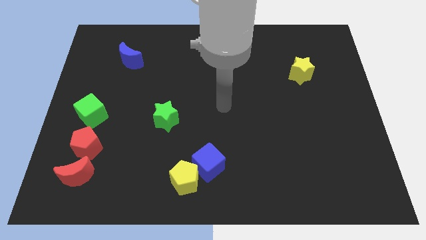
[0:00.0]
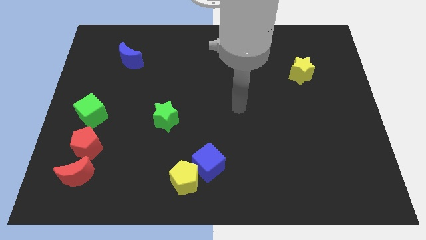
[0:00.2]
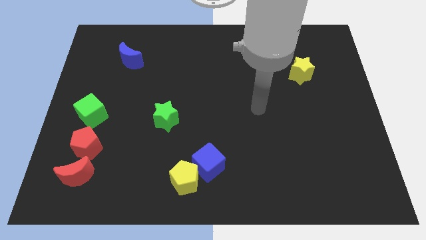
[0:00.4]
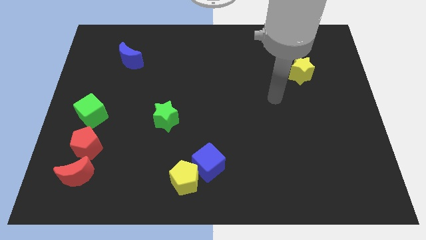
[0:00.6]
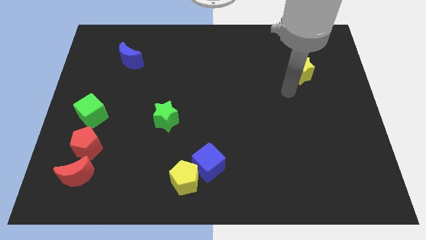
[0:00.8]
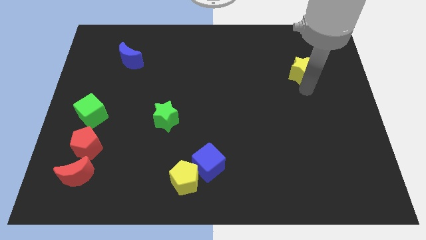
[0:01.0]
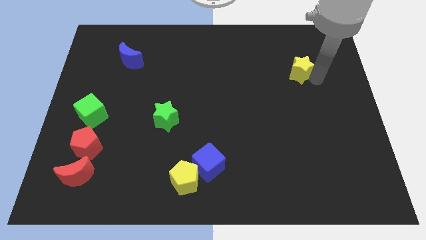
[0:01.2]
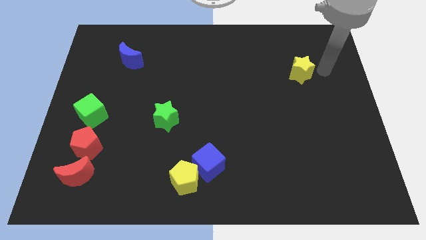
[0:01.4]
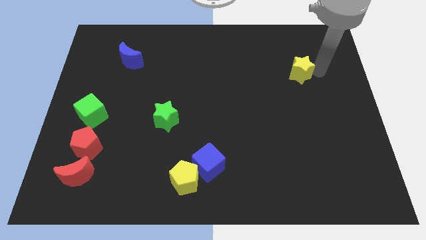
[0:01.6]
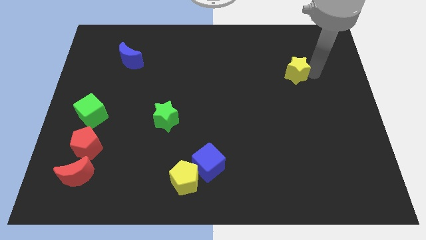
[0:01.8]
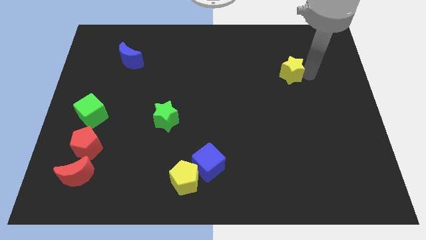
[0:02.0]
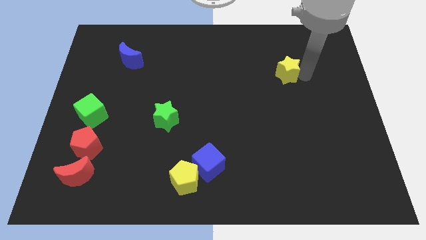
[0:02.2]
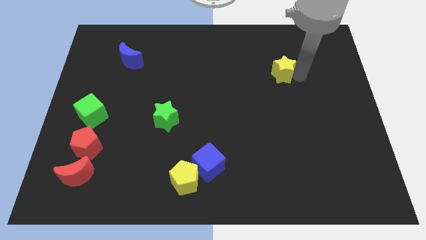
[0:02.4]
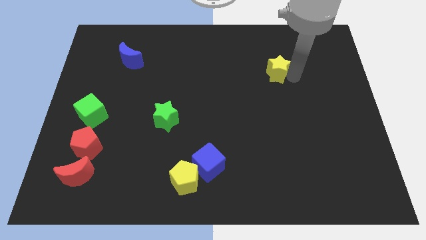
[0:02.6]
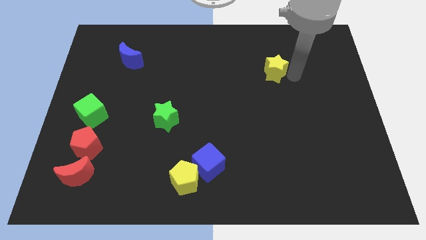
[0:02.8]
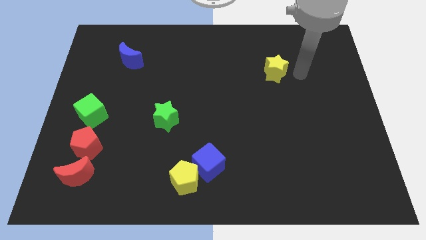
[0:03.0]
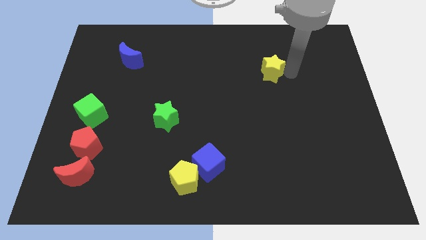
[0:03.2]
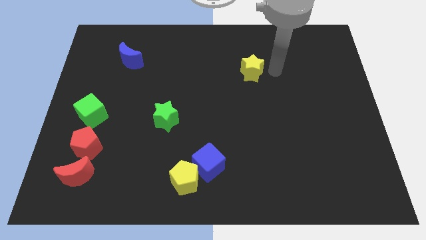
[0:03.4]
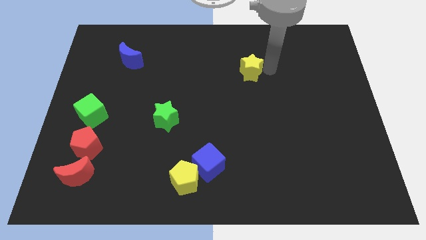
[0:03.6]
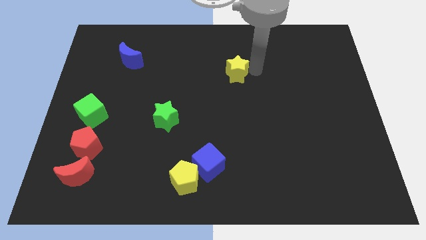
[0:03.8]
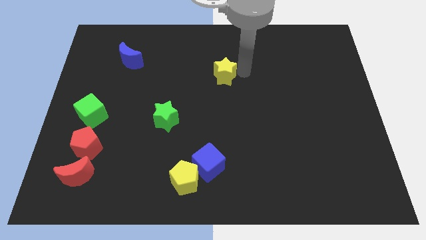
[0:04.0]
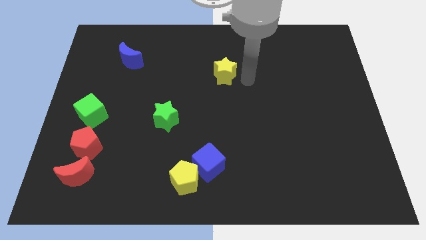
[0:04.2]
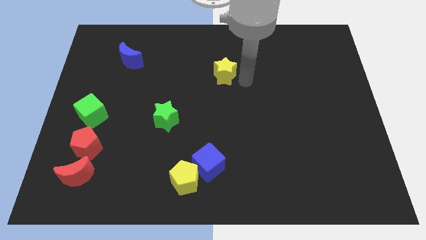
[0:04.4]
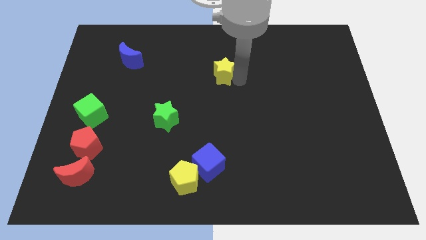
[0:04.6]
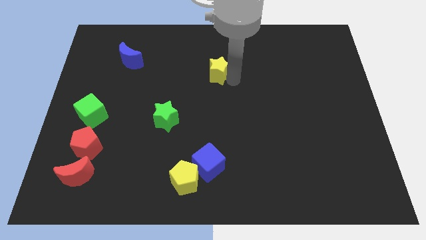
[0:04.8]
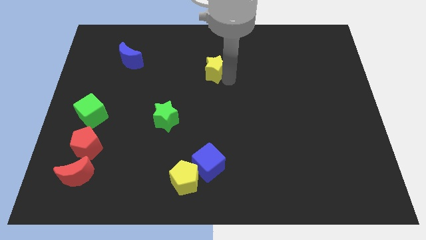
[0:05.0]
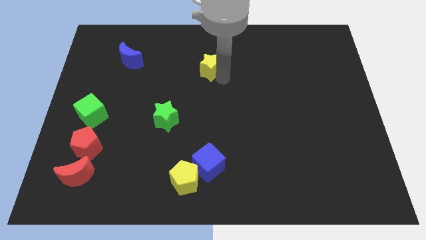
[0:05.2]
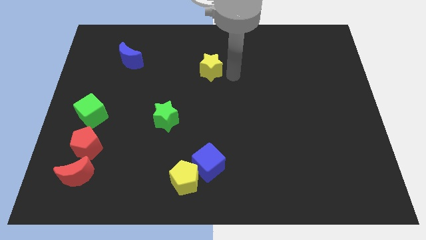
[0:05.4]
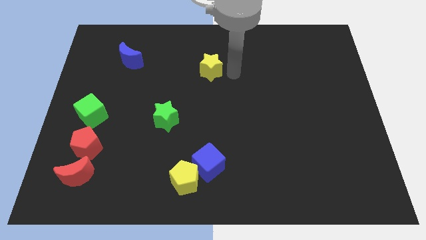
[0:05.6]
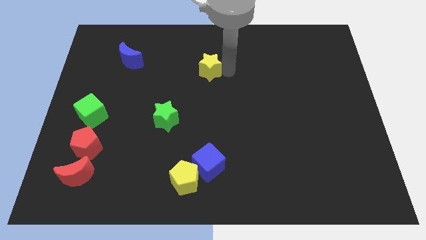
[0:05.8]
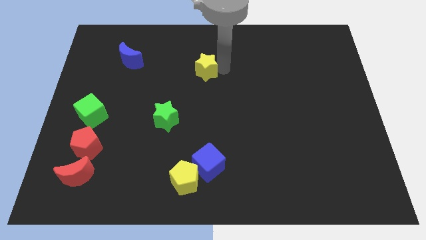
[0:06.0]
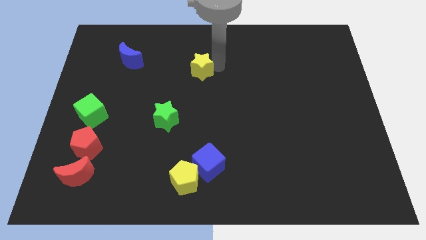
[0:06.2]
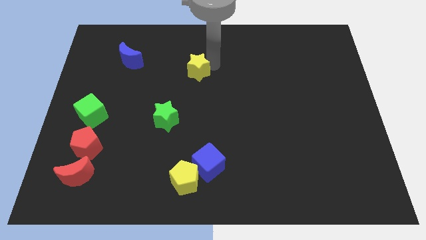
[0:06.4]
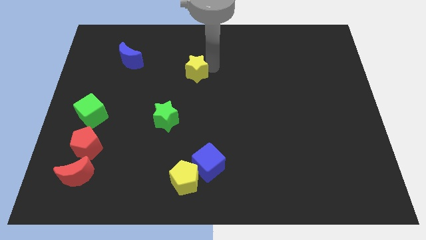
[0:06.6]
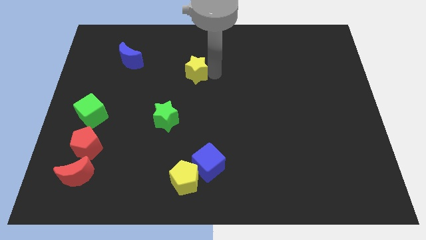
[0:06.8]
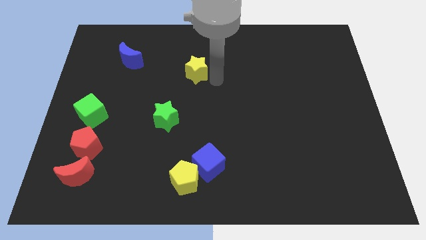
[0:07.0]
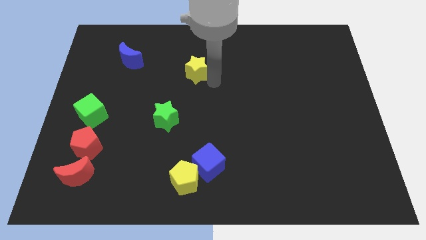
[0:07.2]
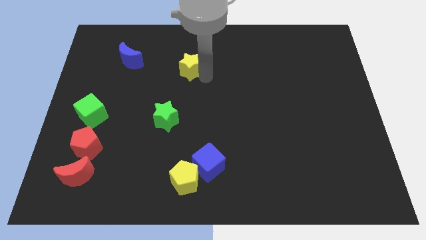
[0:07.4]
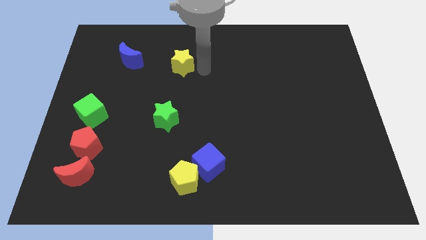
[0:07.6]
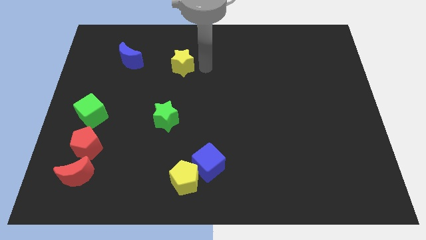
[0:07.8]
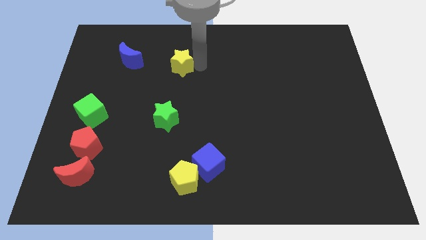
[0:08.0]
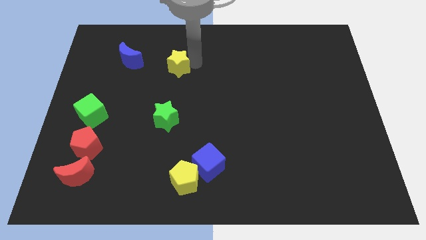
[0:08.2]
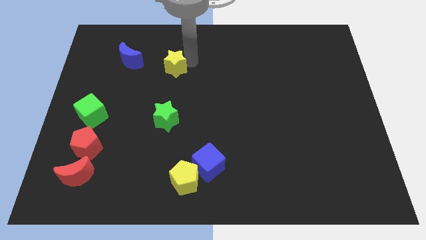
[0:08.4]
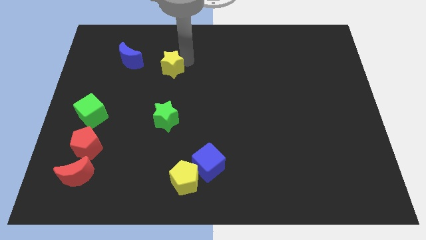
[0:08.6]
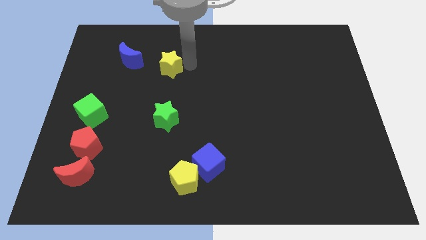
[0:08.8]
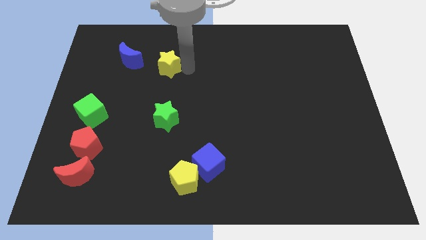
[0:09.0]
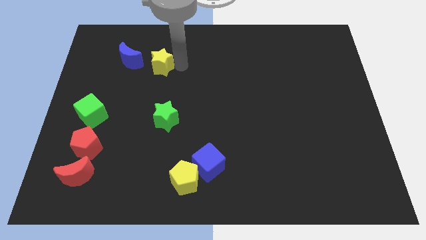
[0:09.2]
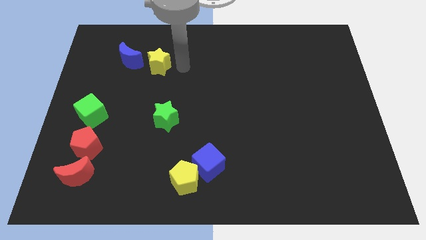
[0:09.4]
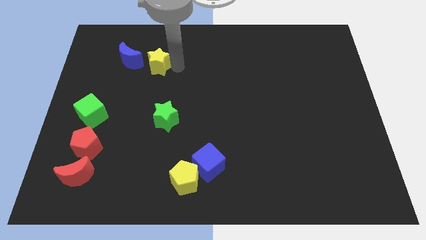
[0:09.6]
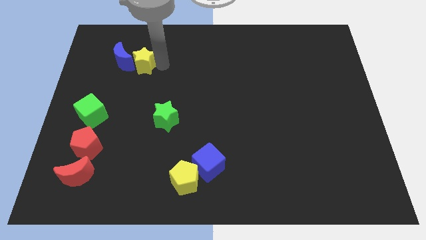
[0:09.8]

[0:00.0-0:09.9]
move the yellow star close to the blue moon

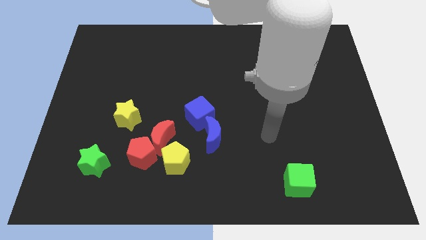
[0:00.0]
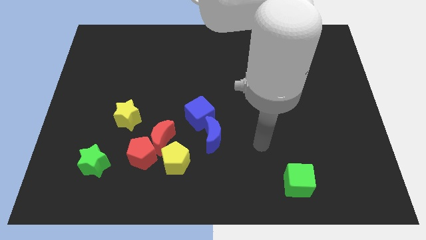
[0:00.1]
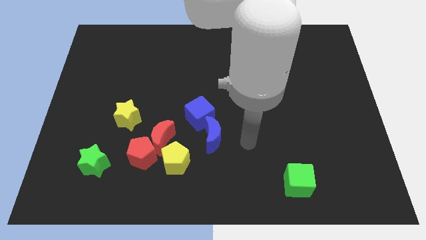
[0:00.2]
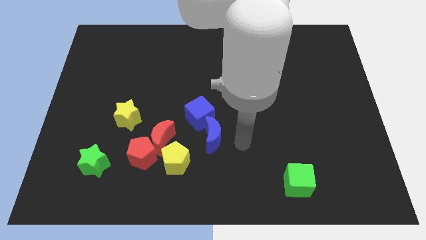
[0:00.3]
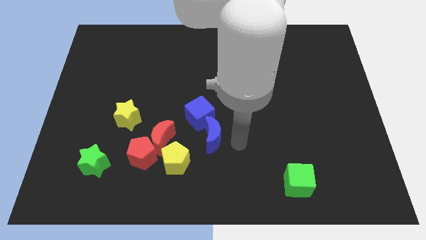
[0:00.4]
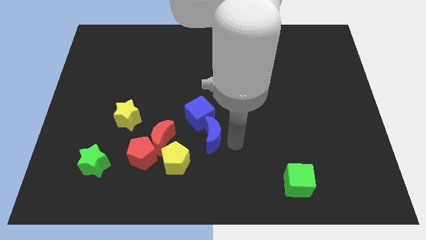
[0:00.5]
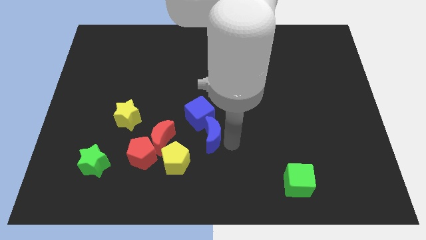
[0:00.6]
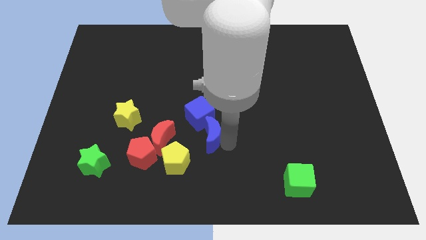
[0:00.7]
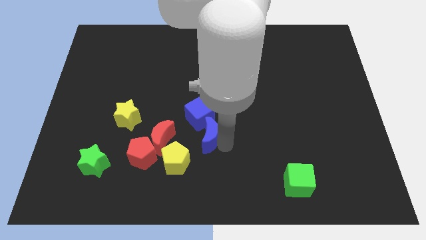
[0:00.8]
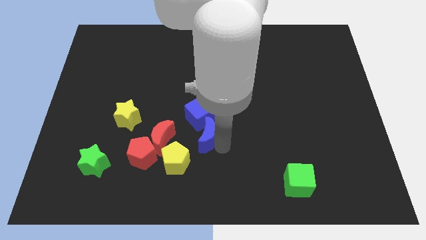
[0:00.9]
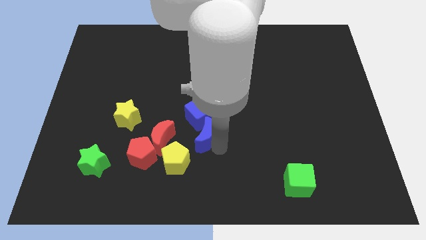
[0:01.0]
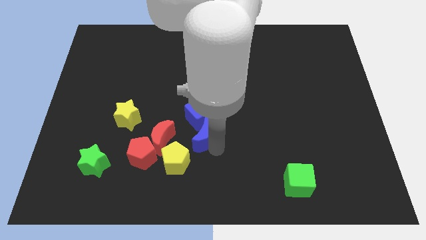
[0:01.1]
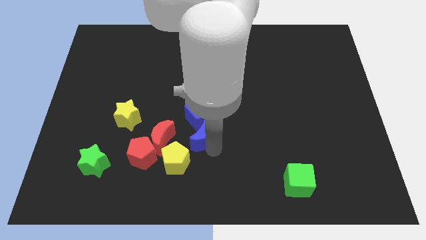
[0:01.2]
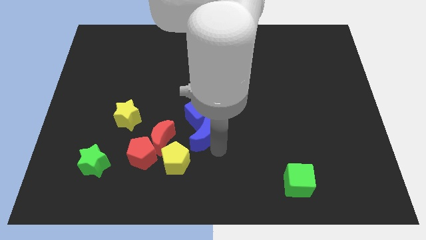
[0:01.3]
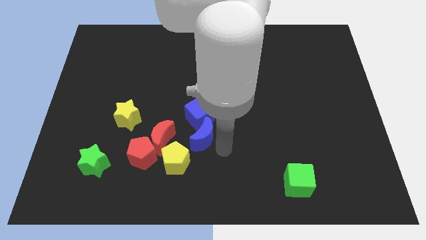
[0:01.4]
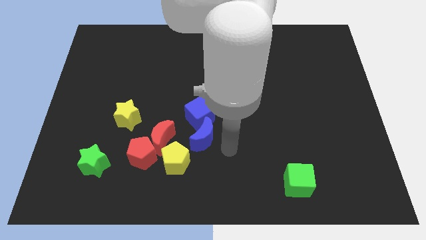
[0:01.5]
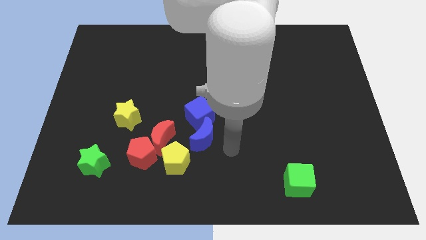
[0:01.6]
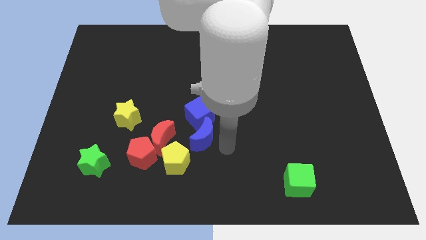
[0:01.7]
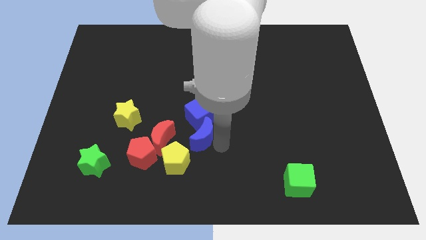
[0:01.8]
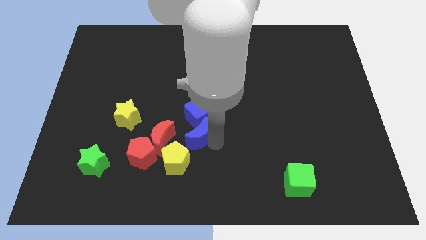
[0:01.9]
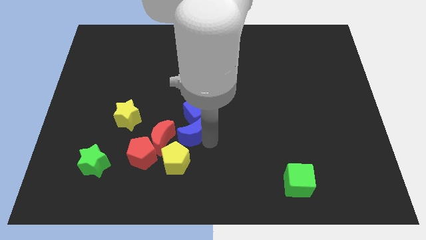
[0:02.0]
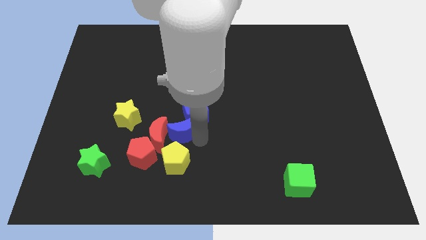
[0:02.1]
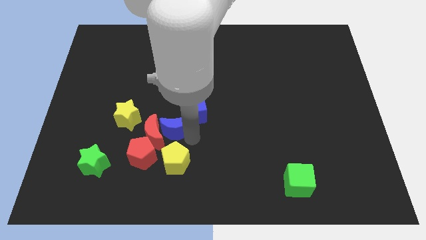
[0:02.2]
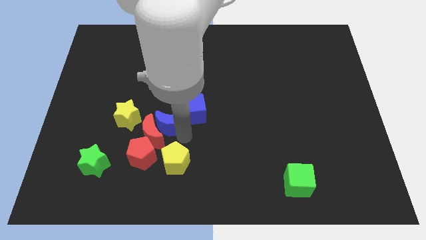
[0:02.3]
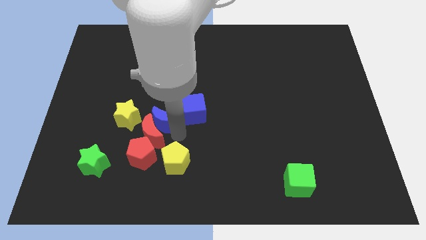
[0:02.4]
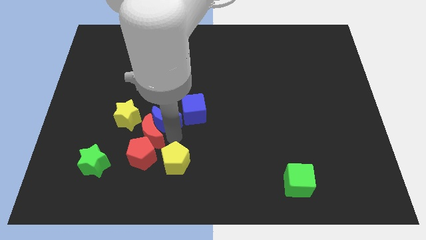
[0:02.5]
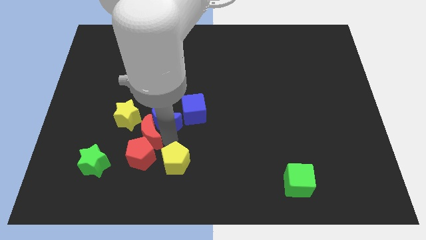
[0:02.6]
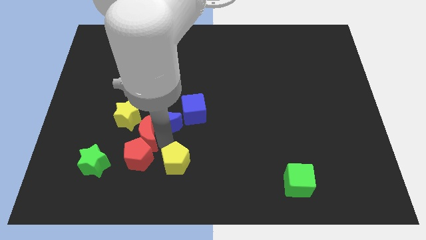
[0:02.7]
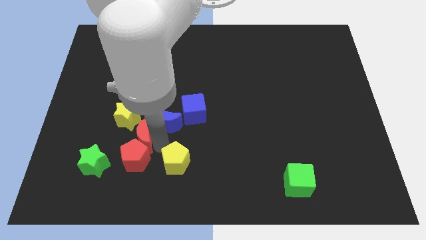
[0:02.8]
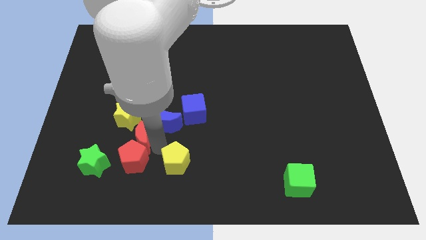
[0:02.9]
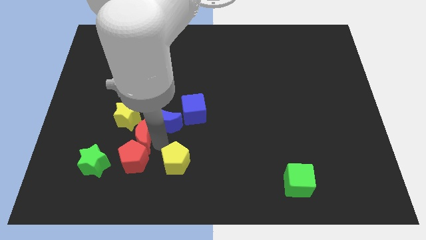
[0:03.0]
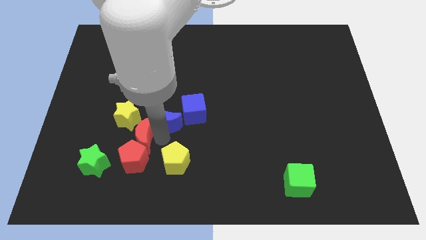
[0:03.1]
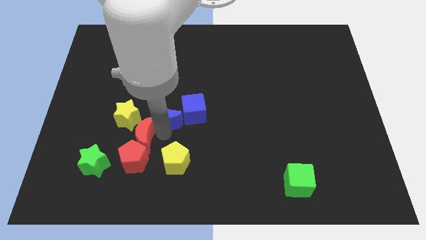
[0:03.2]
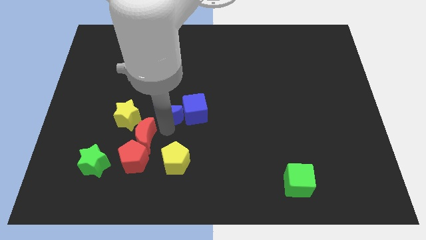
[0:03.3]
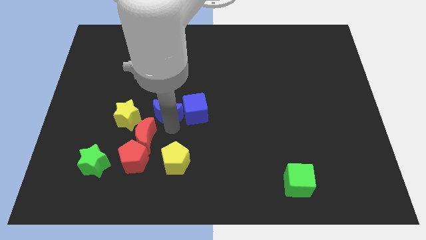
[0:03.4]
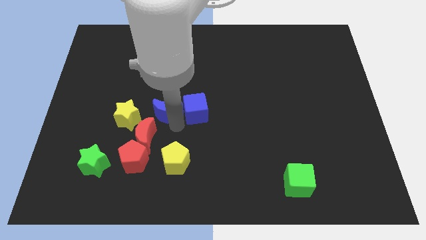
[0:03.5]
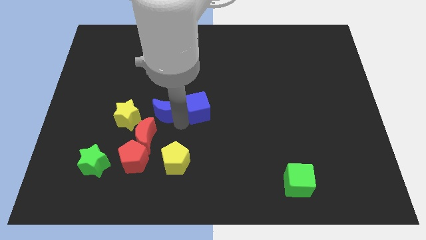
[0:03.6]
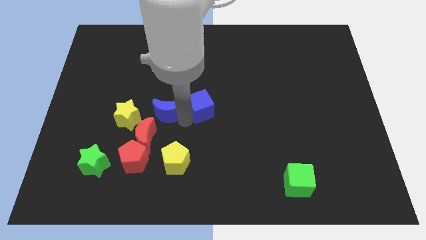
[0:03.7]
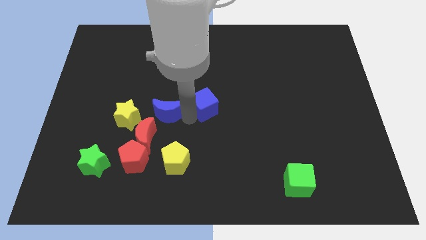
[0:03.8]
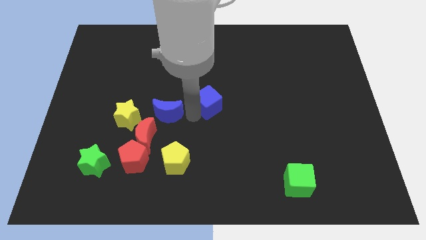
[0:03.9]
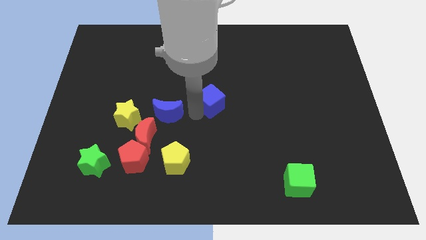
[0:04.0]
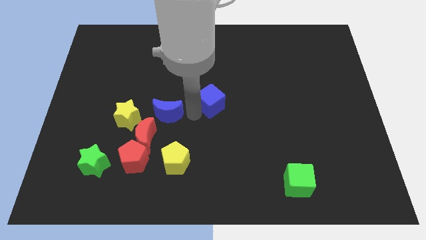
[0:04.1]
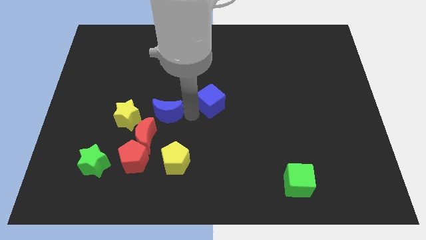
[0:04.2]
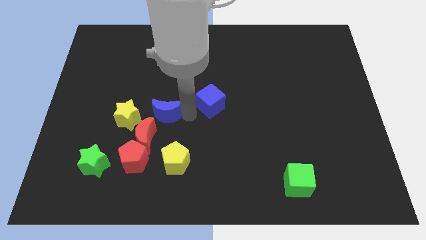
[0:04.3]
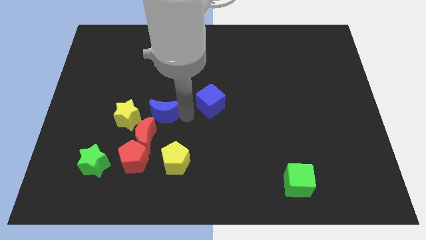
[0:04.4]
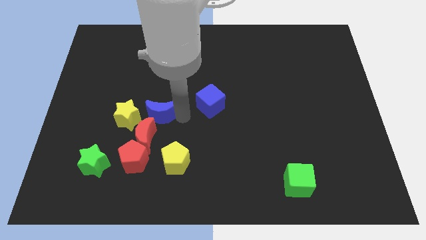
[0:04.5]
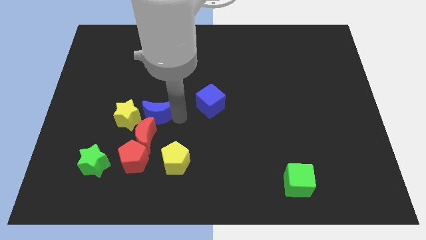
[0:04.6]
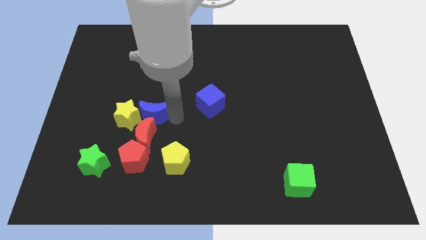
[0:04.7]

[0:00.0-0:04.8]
put the blue moon towards the yellow star
